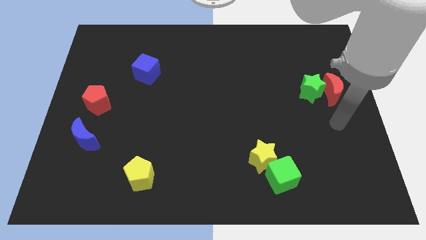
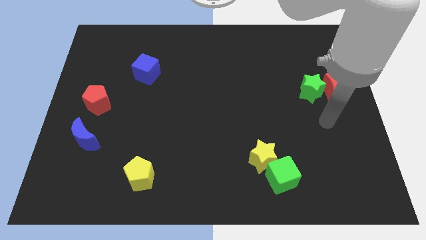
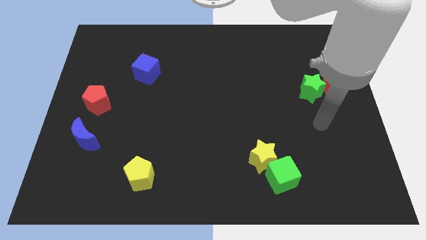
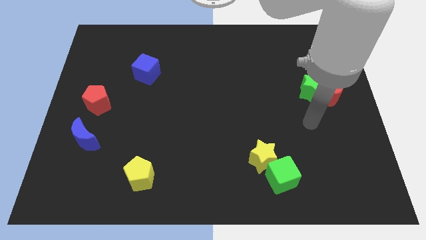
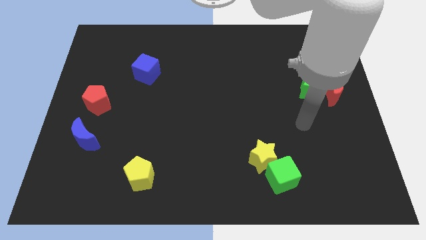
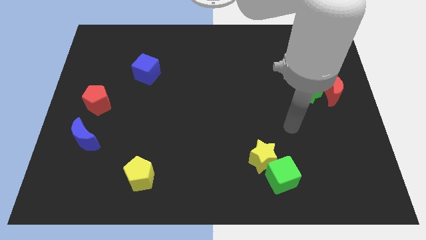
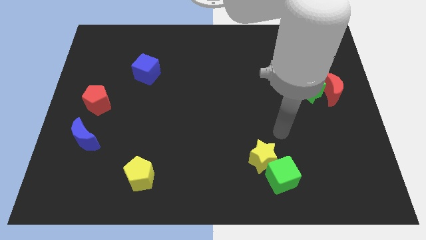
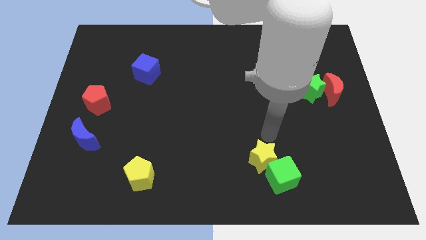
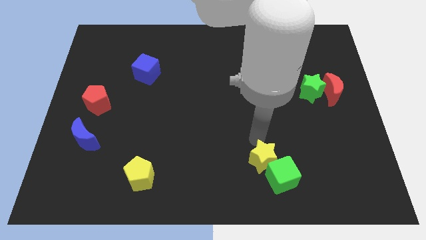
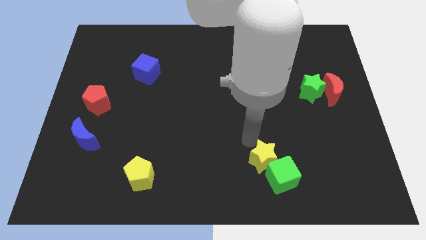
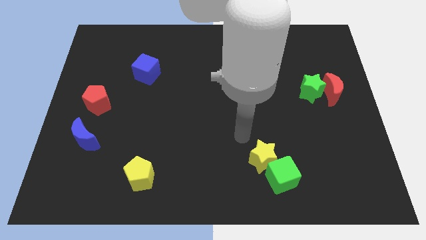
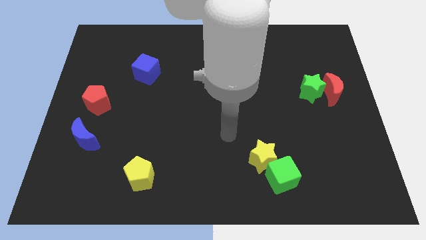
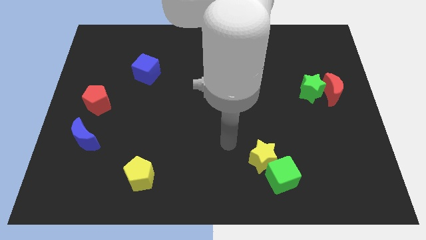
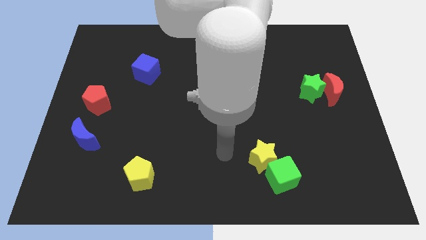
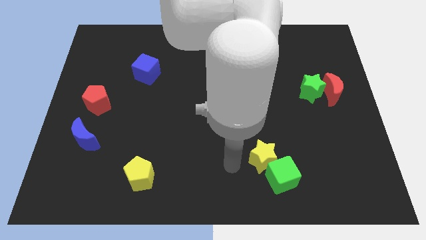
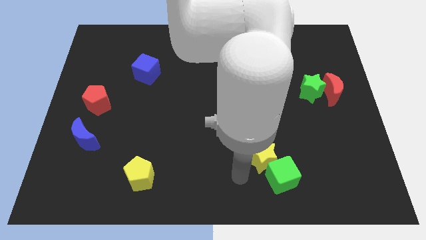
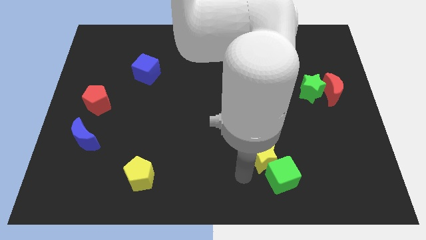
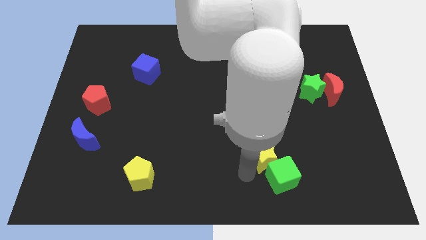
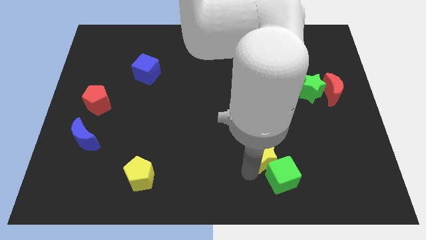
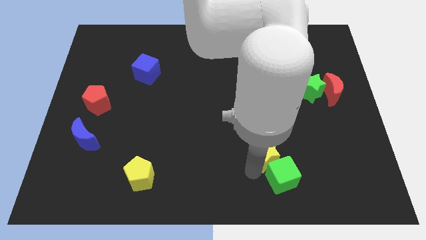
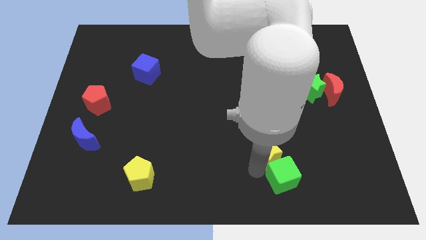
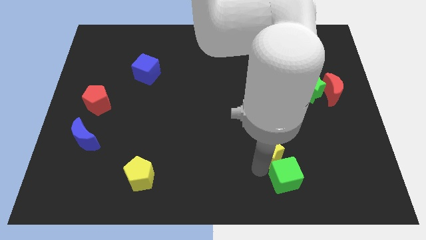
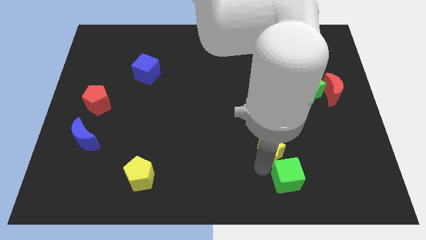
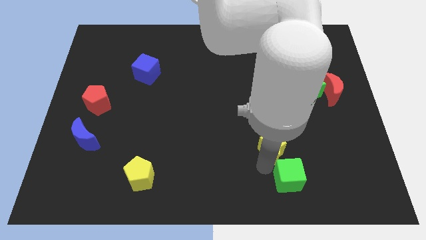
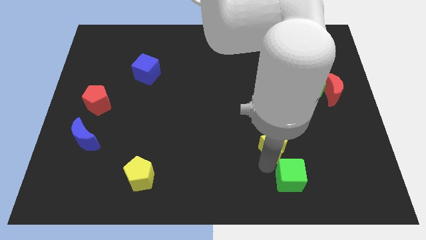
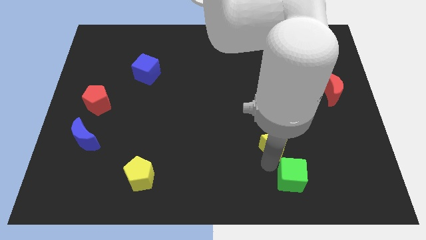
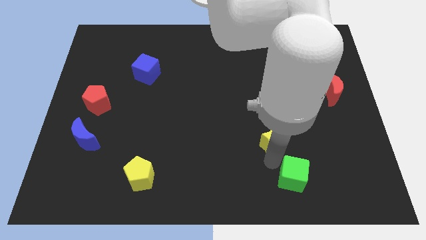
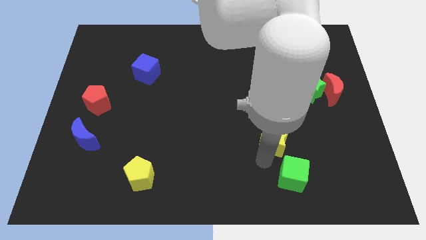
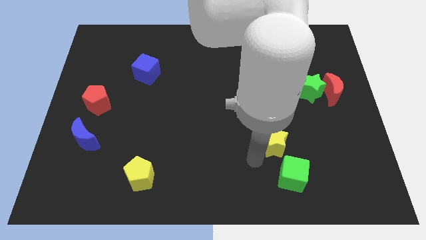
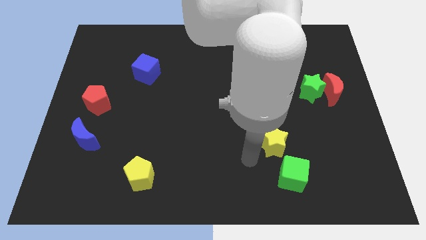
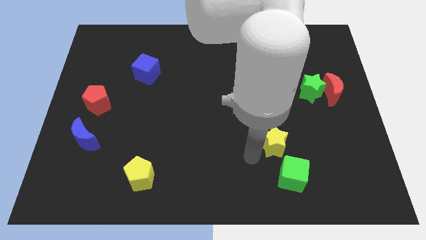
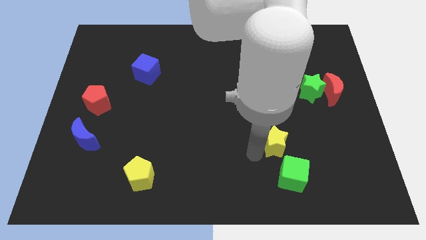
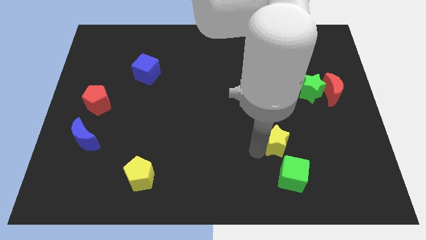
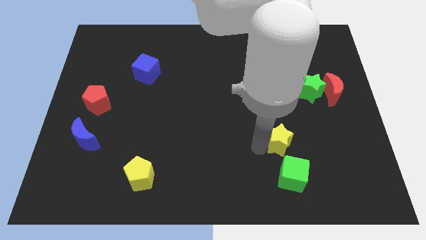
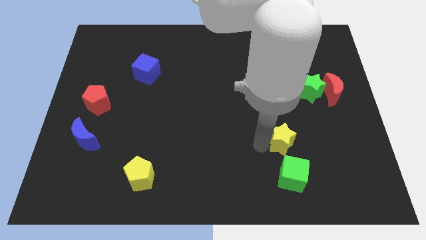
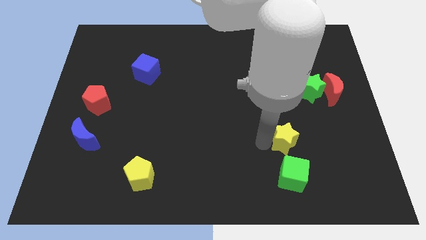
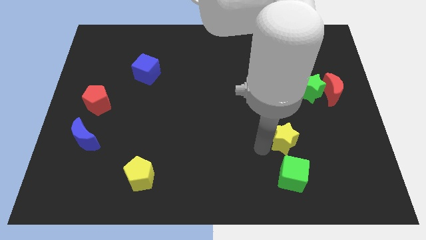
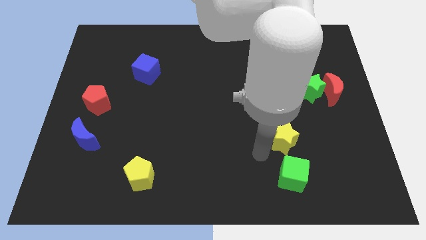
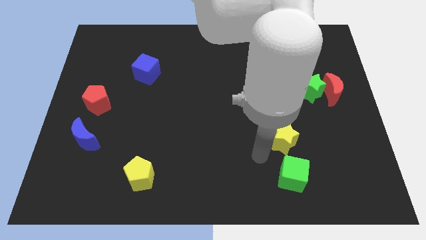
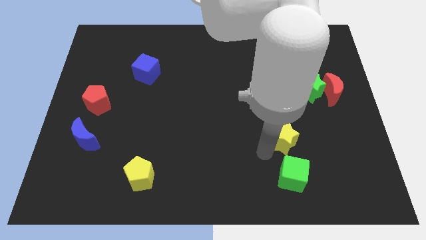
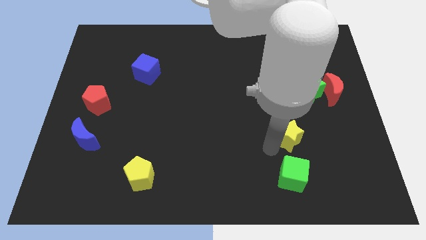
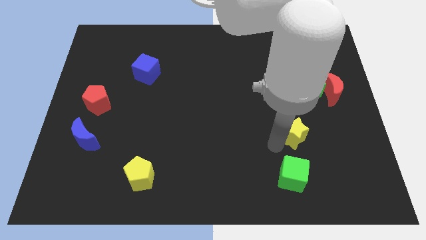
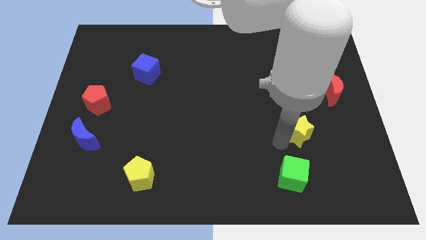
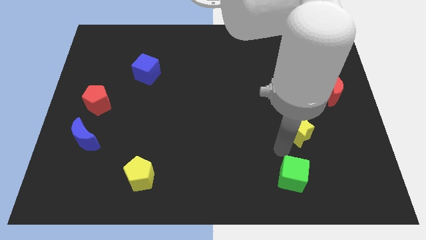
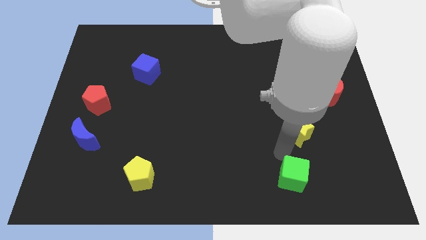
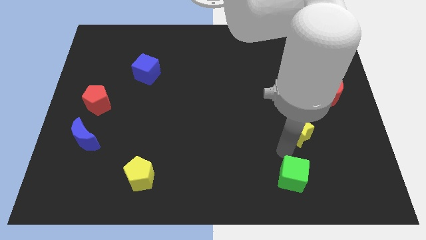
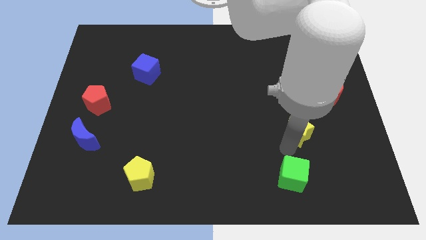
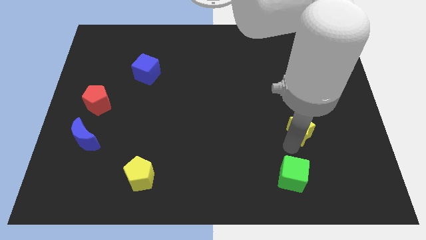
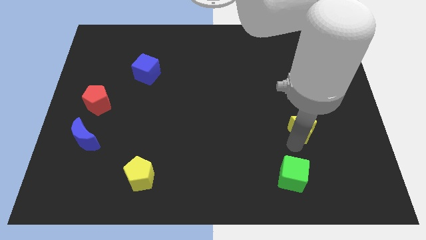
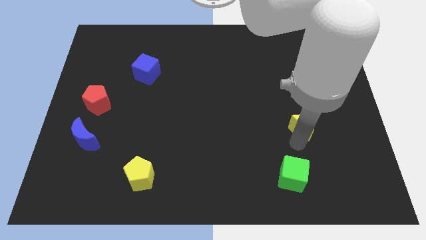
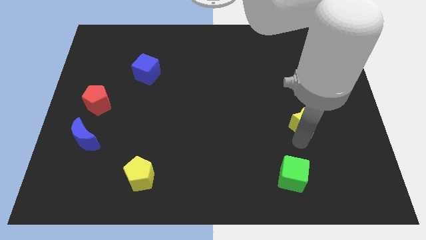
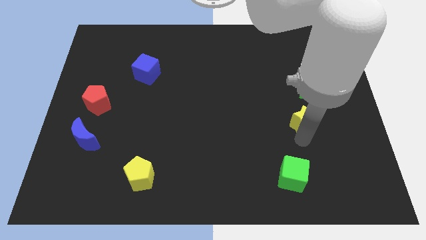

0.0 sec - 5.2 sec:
slide the yellow star to the bottom left of the red moon

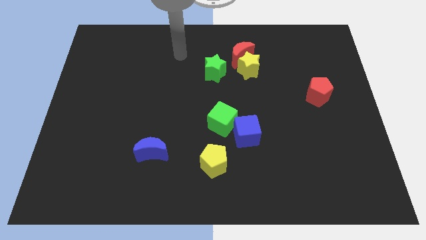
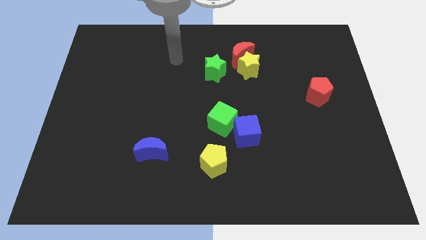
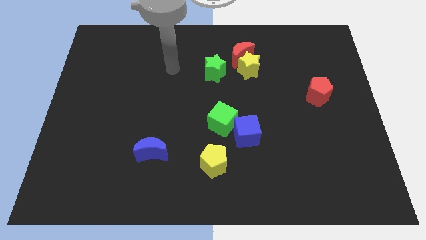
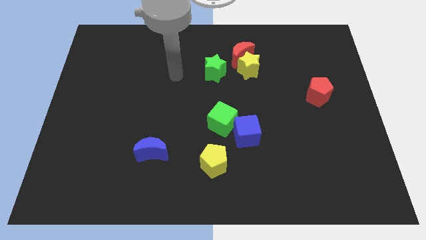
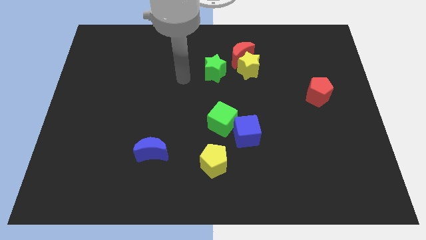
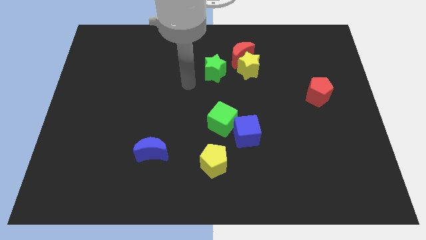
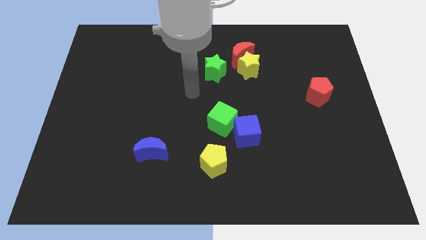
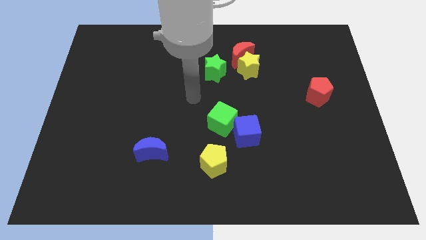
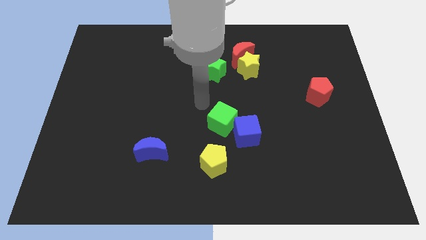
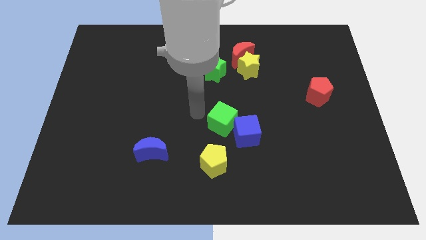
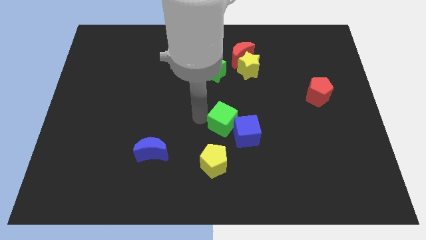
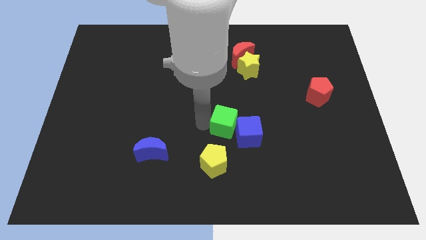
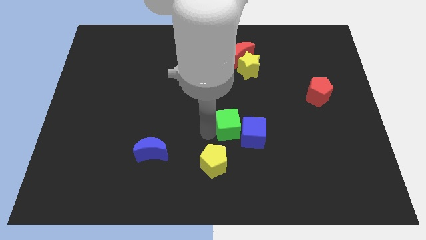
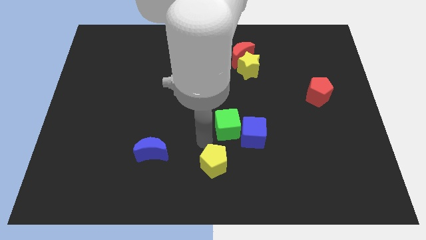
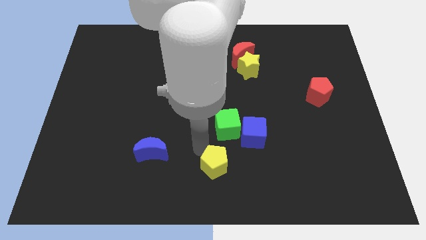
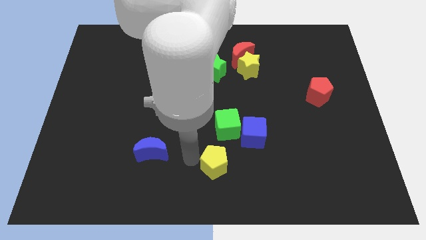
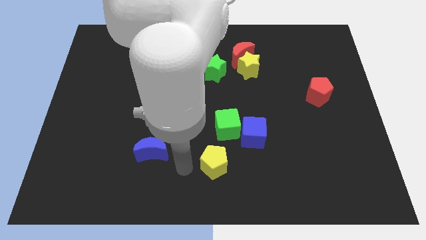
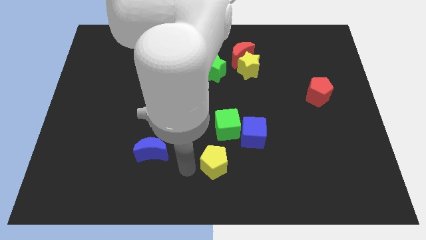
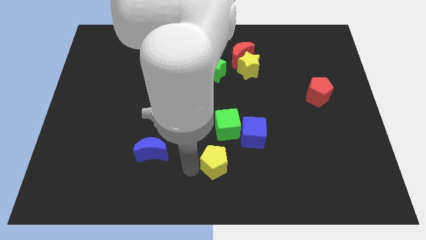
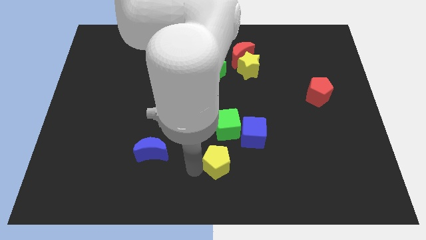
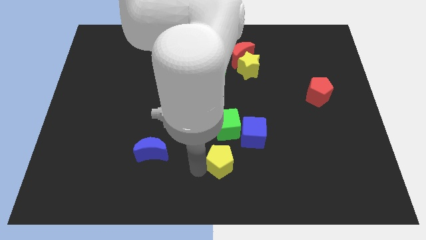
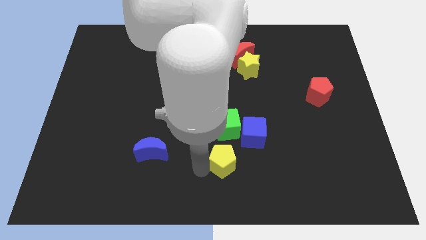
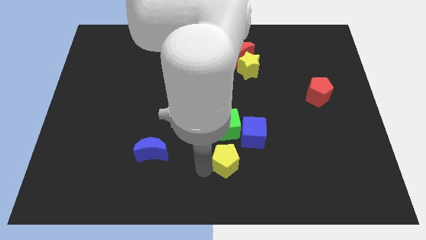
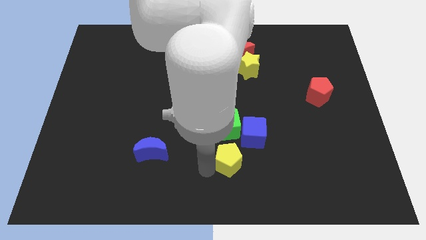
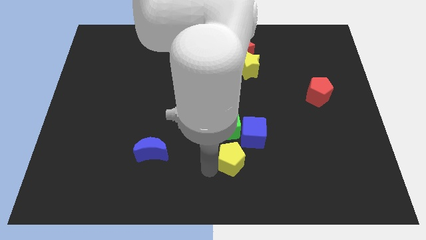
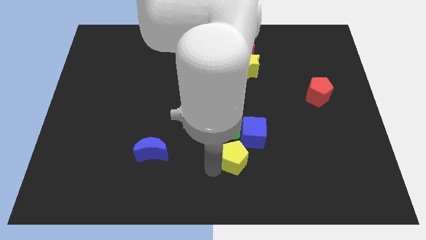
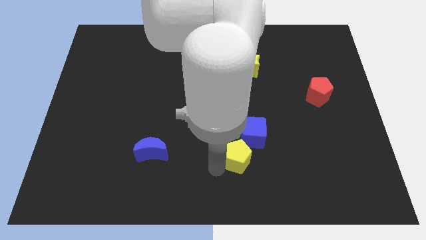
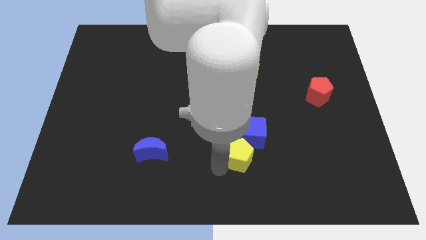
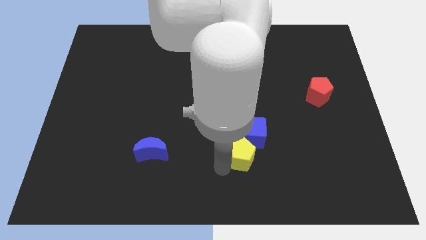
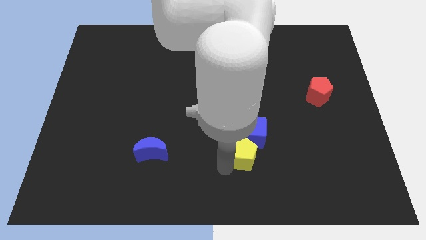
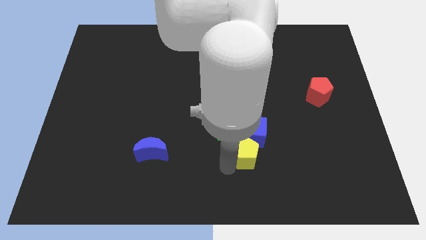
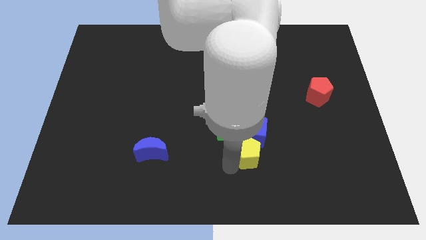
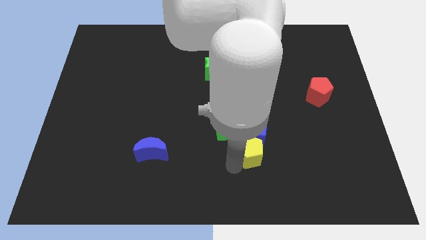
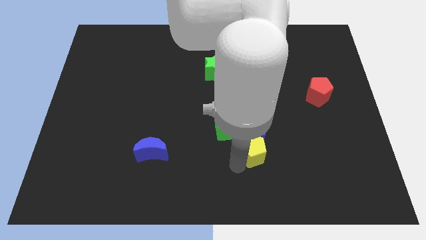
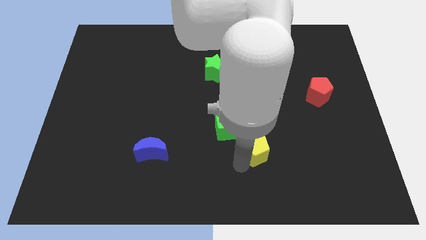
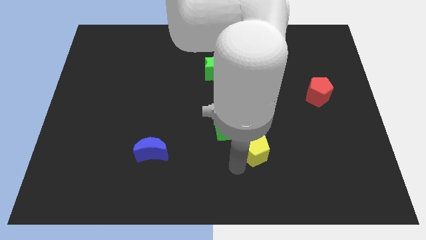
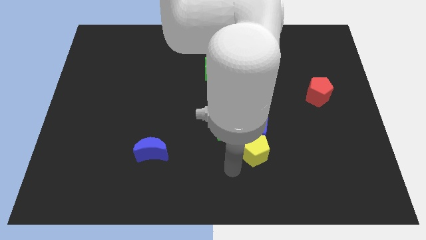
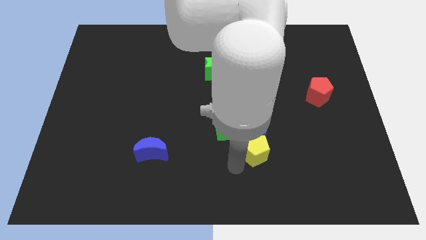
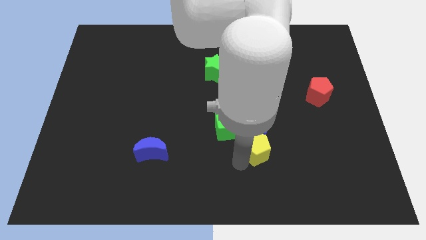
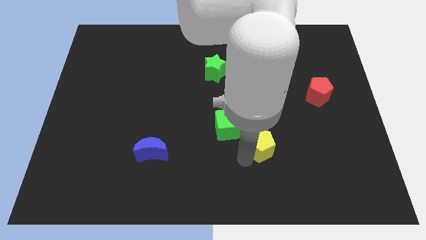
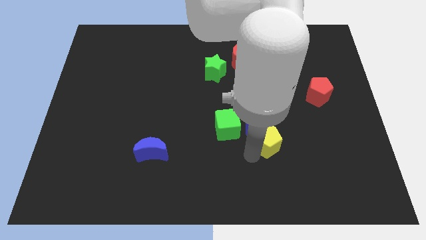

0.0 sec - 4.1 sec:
slide the yellow pentagon just right of the green cube
